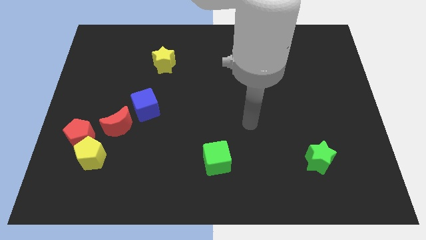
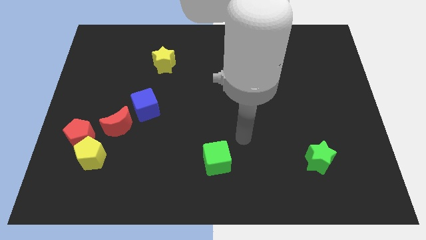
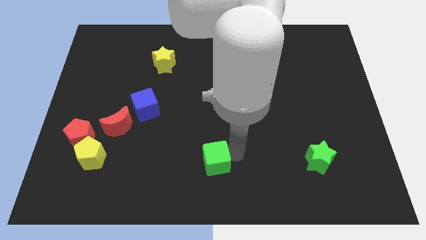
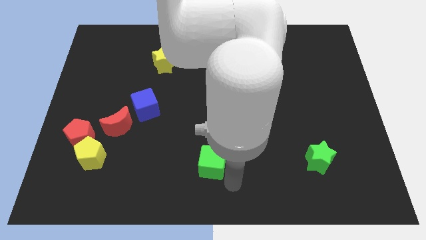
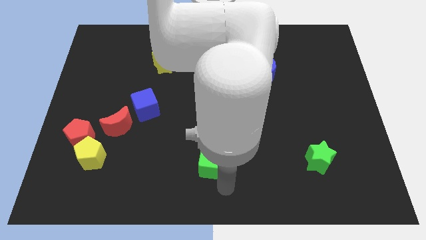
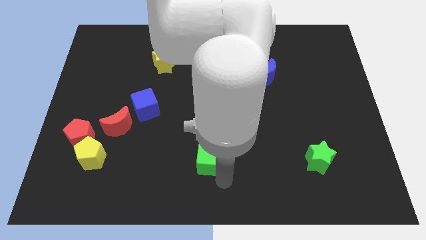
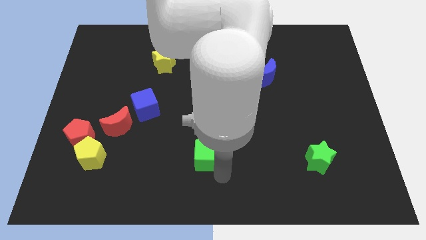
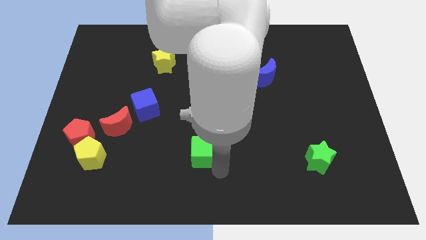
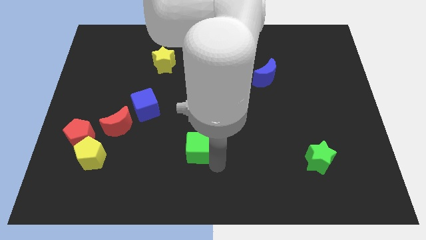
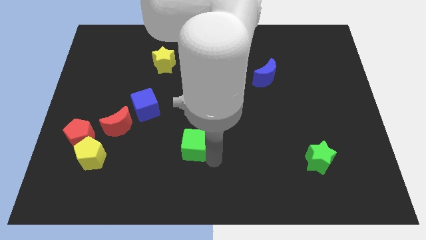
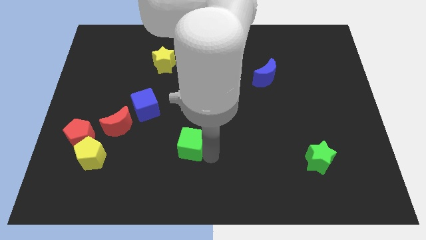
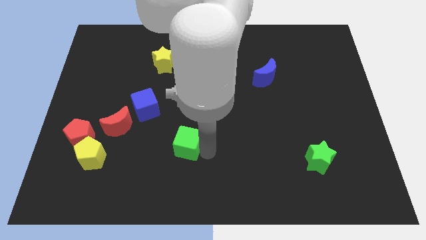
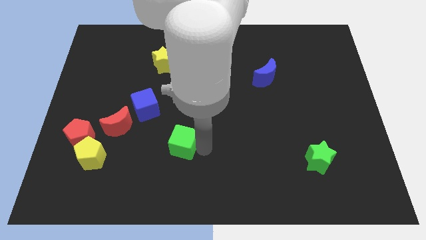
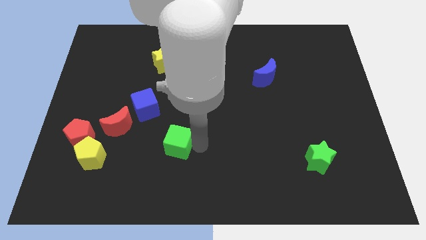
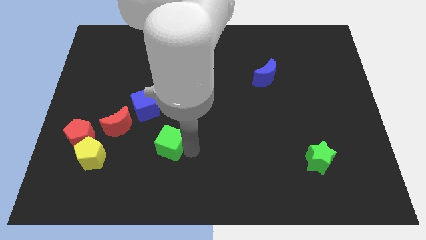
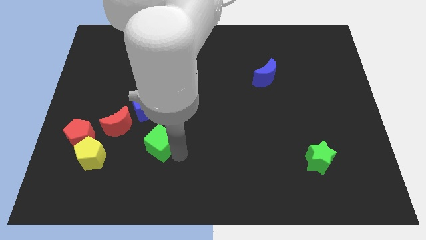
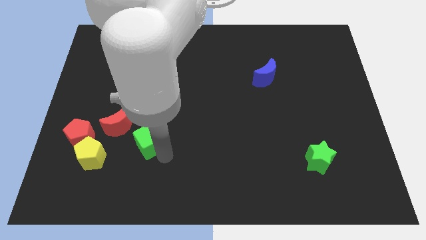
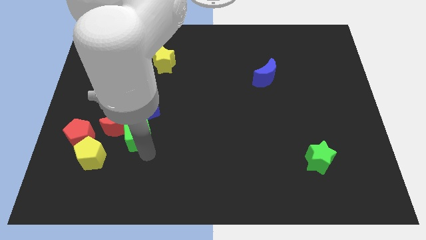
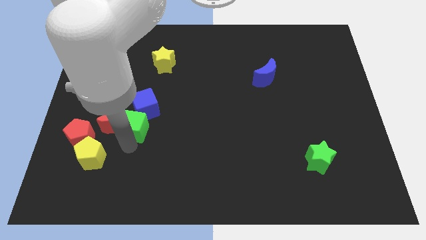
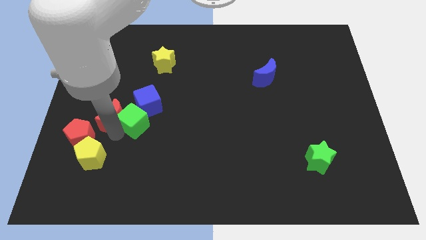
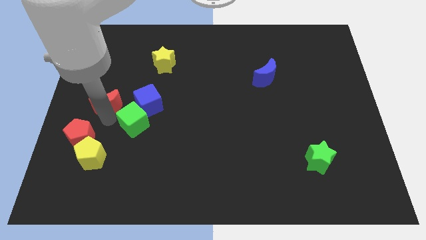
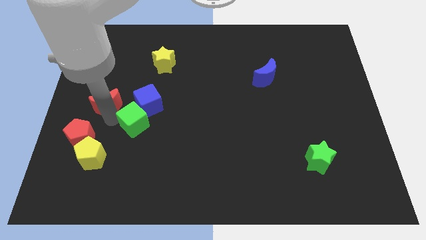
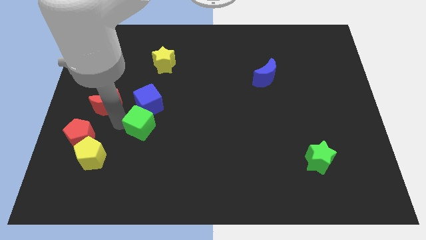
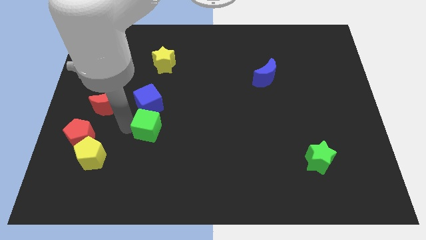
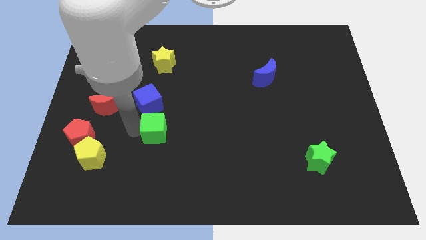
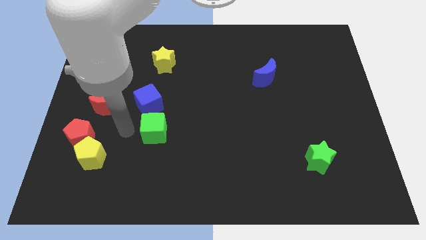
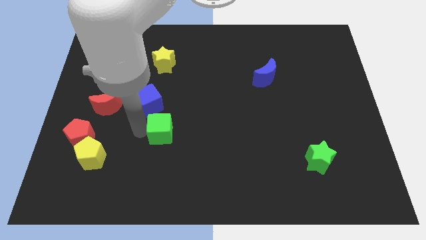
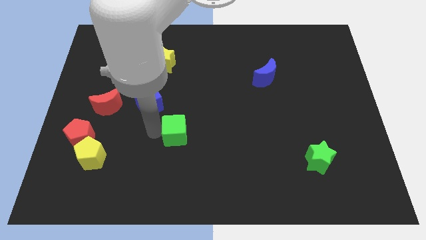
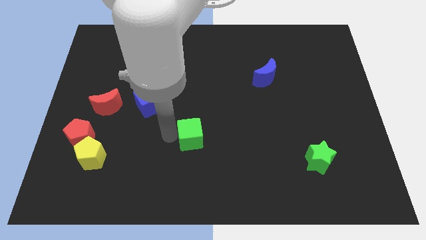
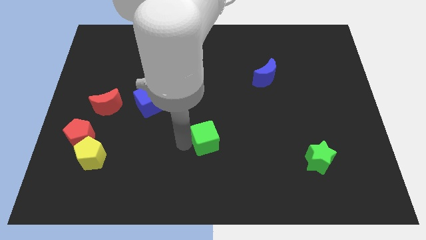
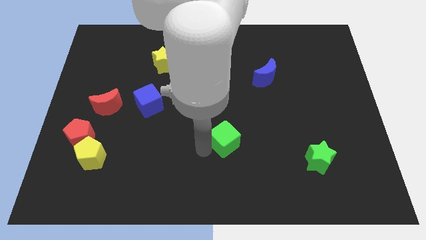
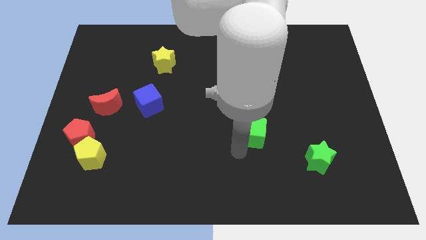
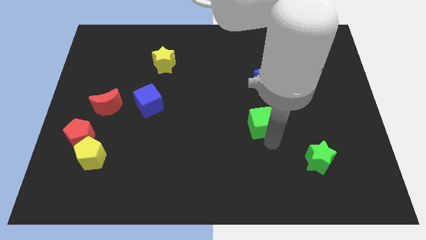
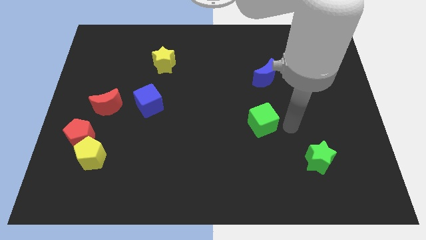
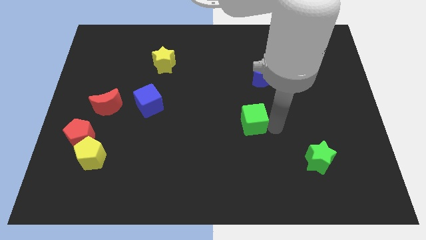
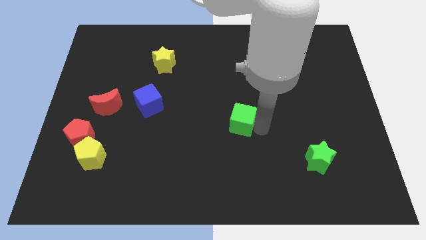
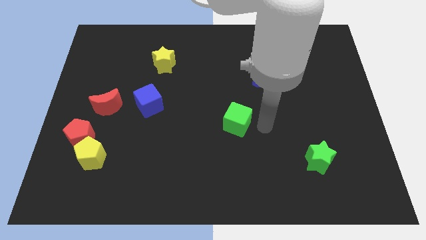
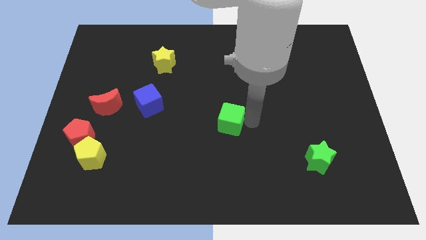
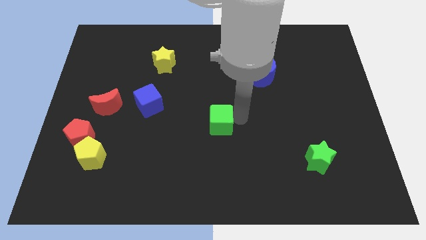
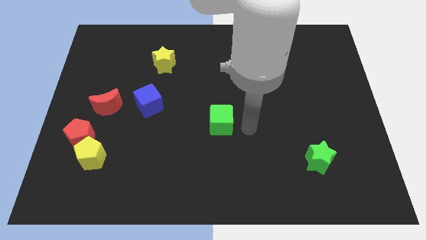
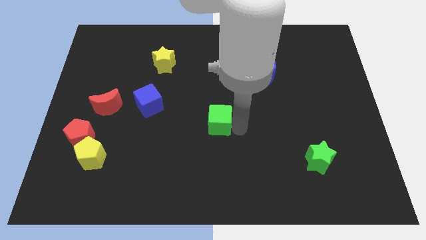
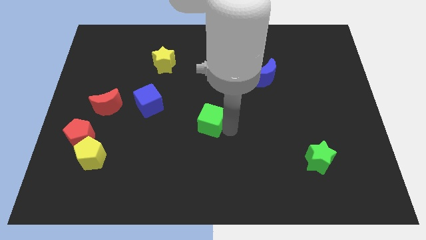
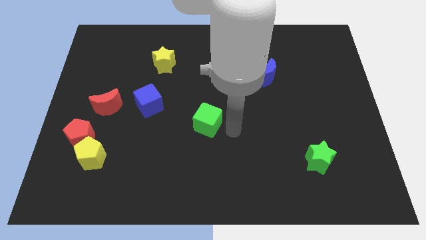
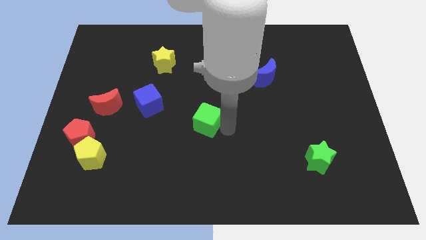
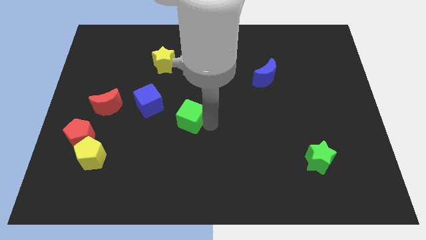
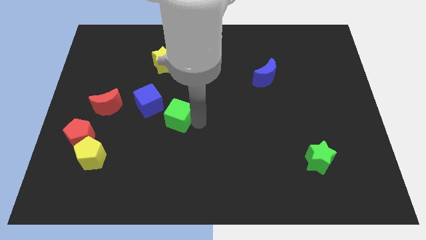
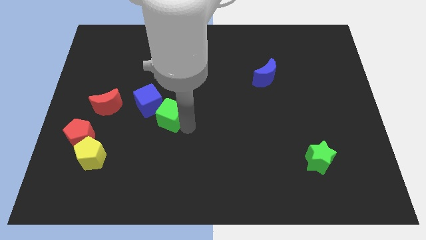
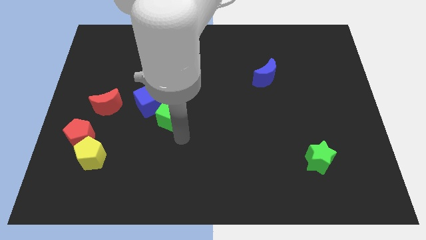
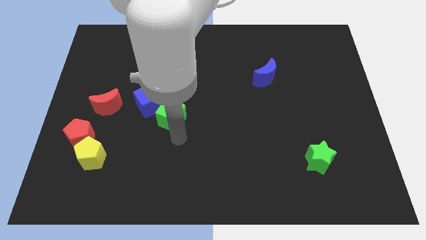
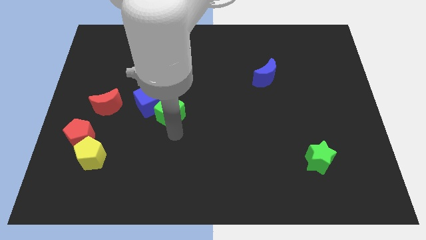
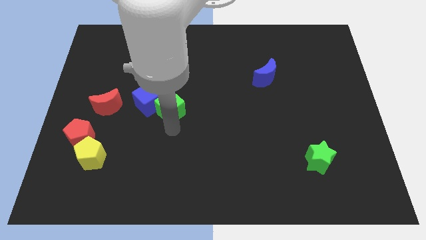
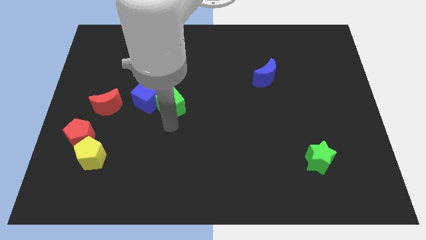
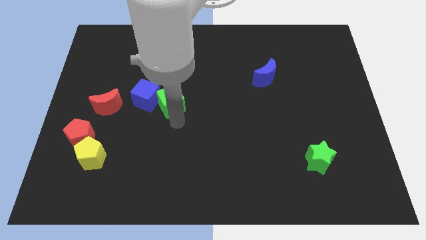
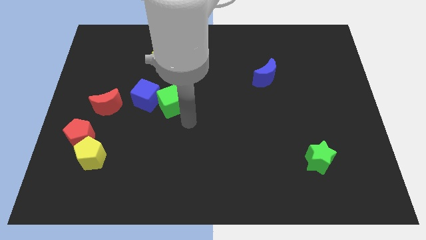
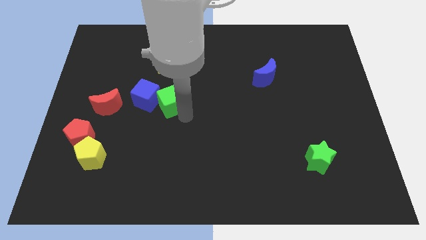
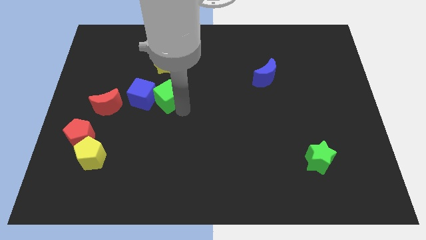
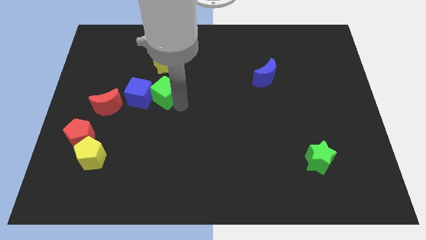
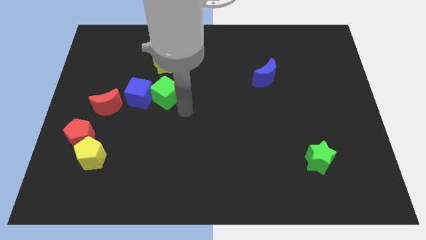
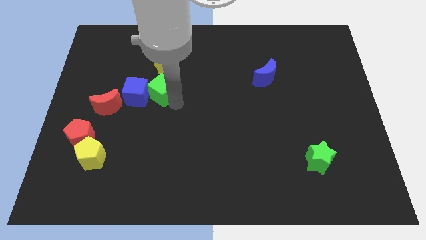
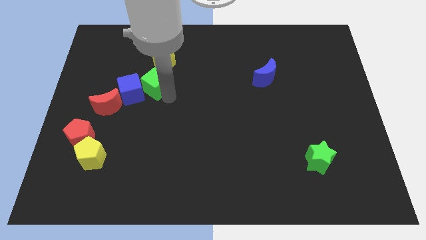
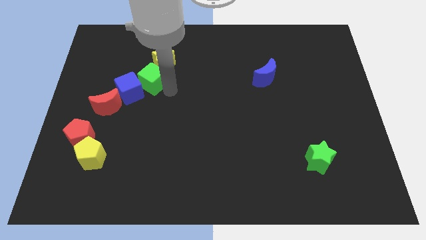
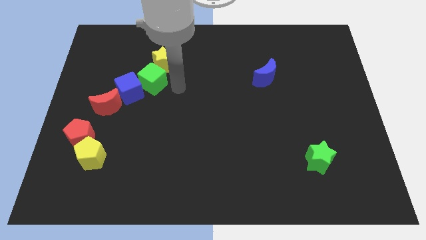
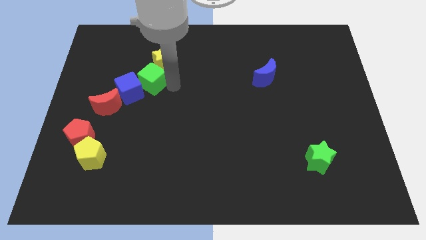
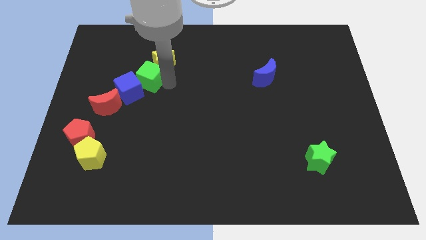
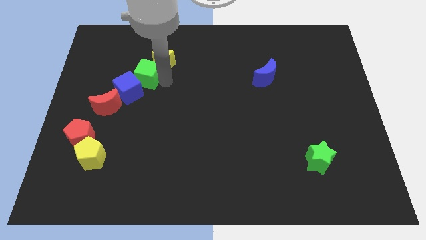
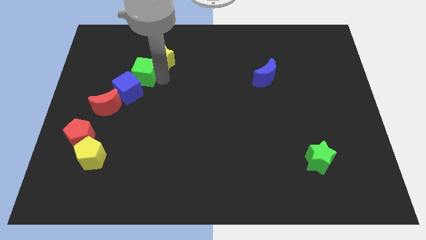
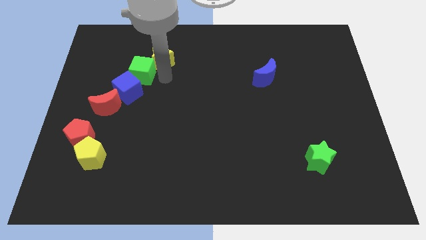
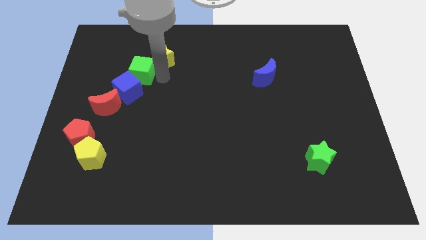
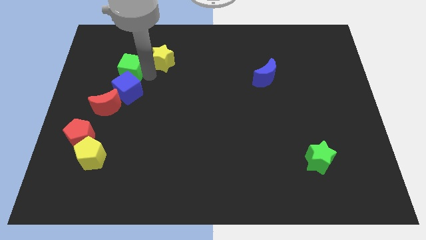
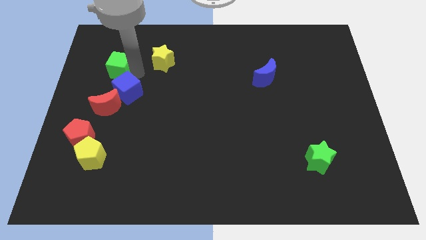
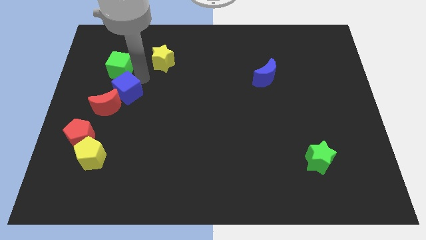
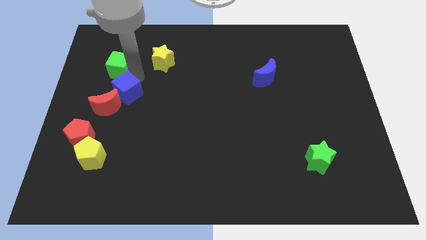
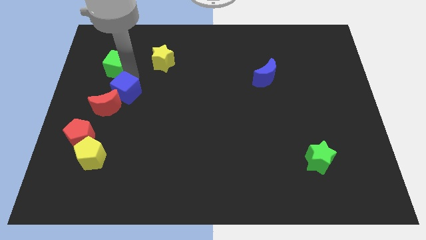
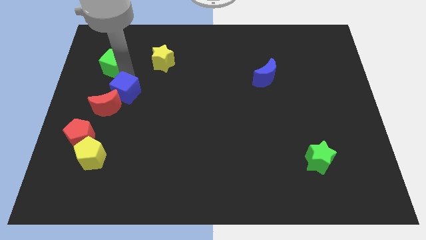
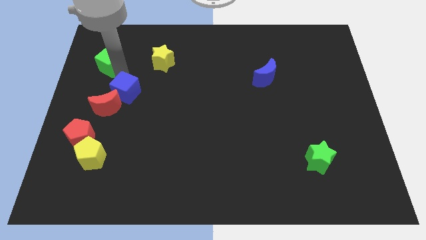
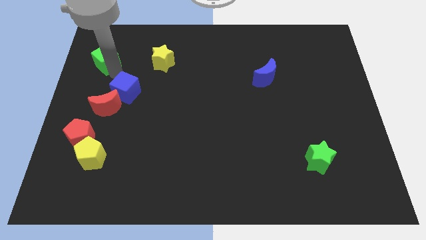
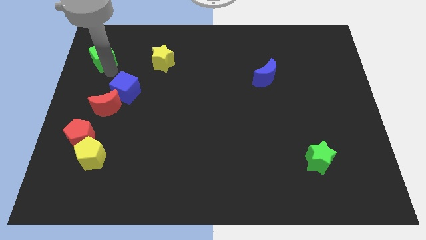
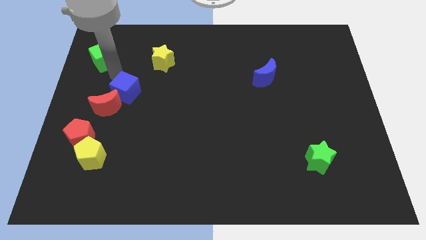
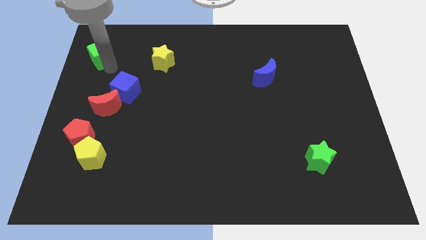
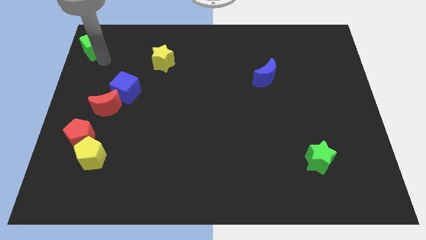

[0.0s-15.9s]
push the green cube to the top left
